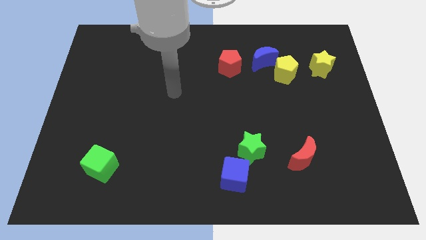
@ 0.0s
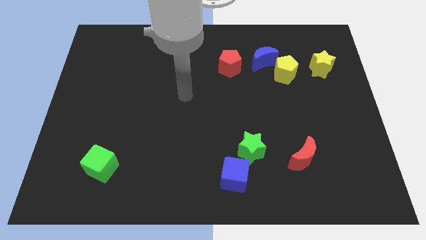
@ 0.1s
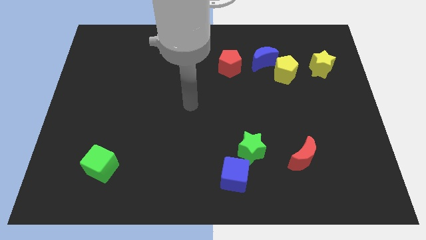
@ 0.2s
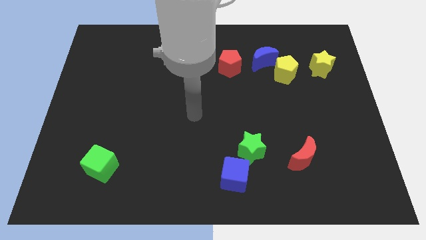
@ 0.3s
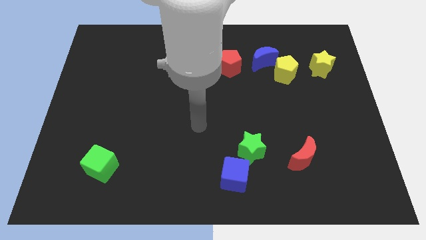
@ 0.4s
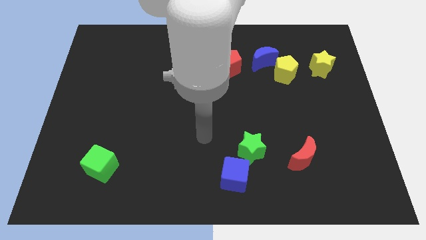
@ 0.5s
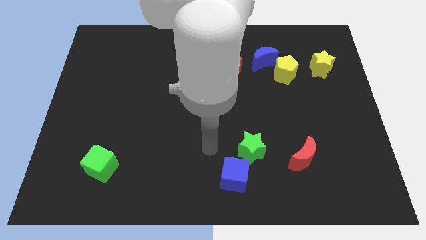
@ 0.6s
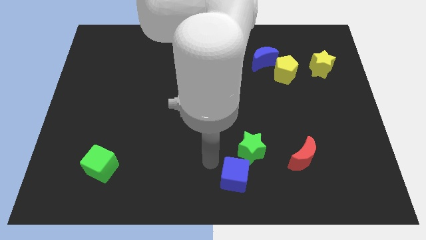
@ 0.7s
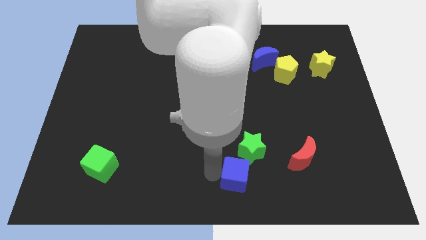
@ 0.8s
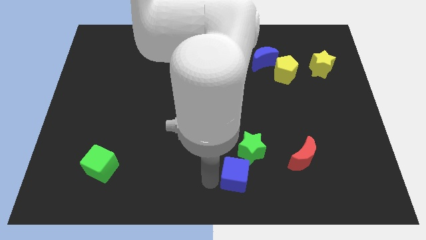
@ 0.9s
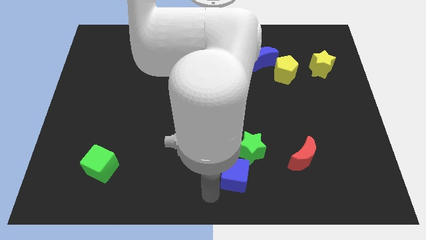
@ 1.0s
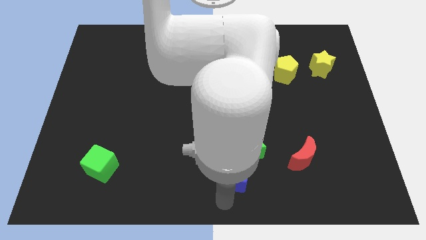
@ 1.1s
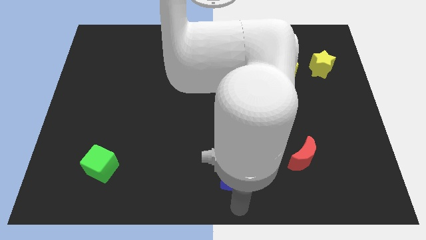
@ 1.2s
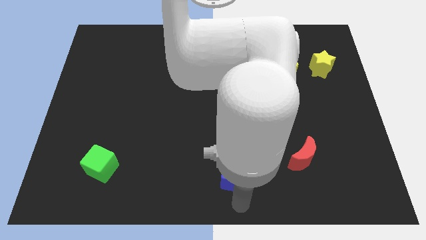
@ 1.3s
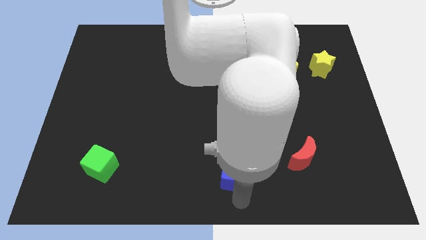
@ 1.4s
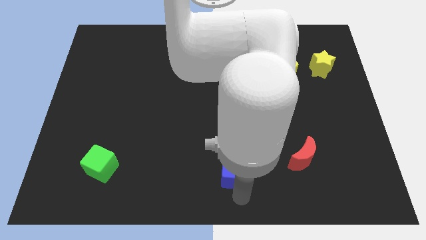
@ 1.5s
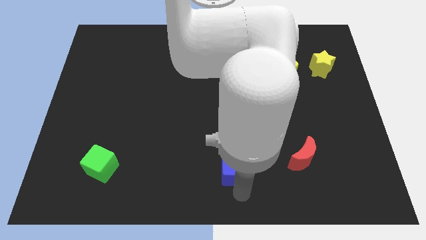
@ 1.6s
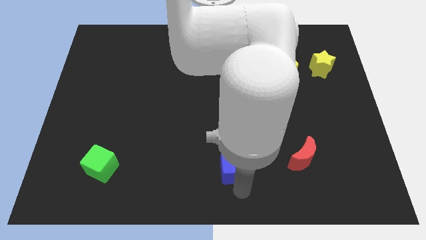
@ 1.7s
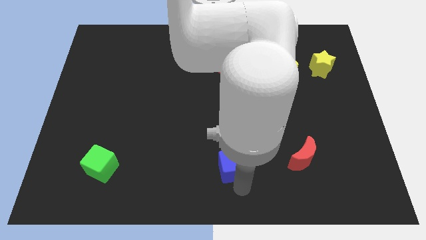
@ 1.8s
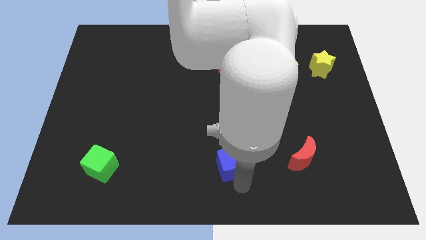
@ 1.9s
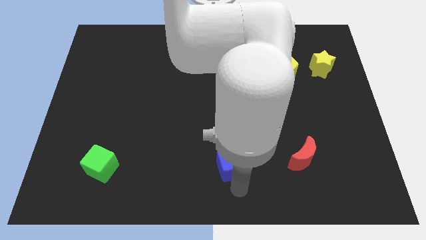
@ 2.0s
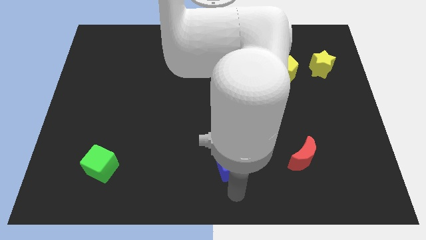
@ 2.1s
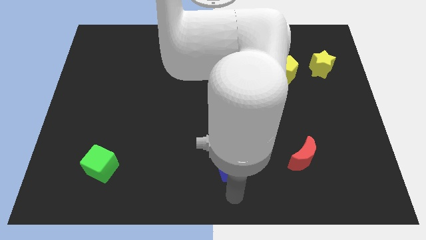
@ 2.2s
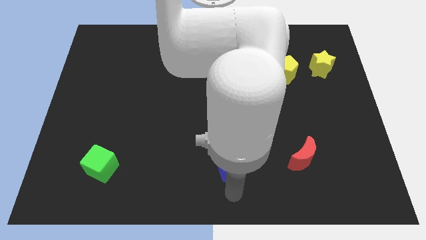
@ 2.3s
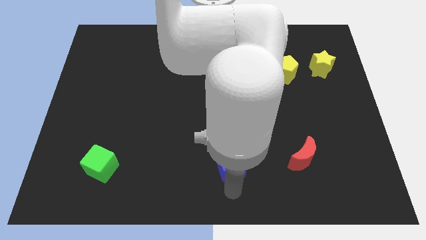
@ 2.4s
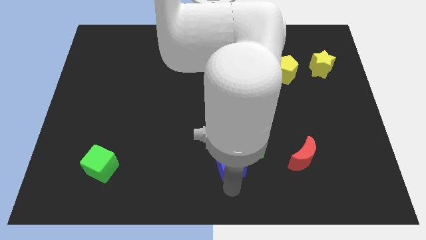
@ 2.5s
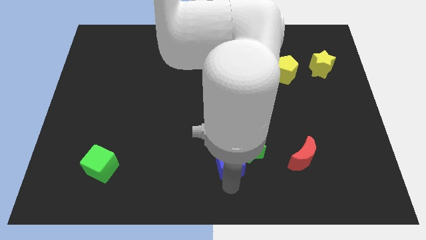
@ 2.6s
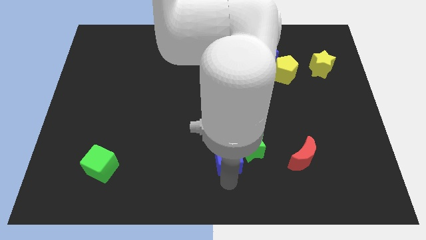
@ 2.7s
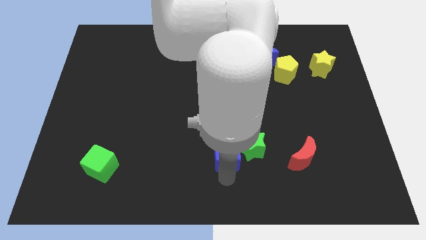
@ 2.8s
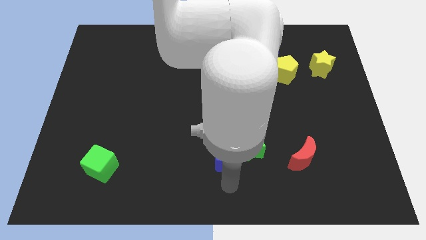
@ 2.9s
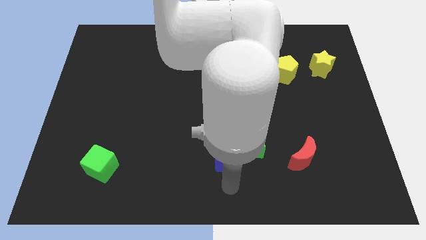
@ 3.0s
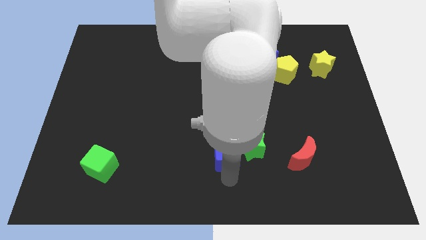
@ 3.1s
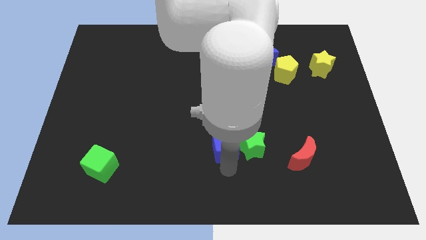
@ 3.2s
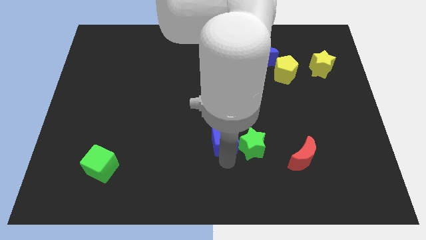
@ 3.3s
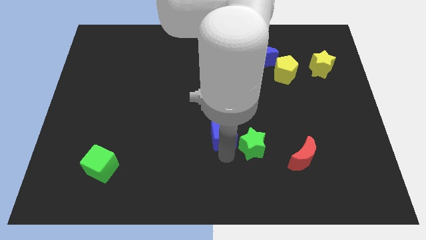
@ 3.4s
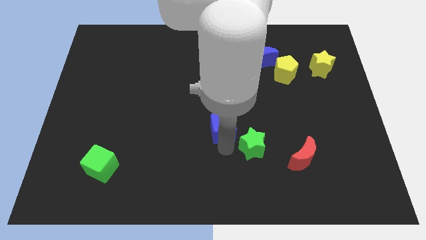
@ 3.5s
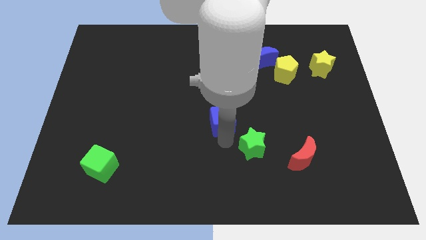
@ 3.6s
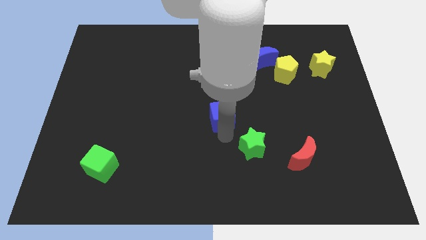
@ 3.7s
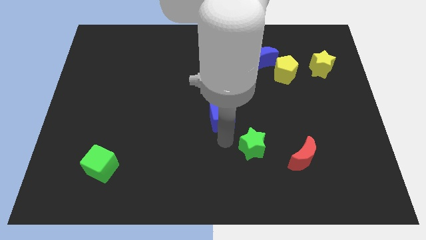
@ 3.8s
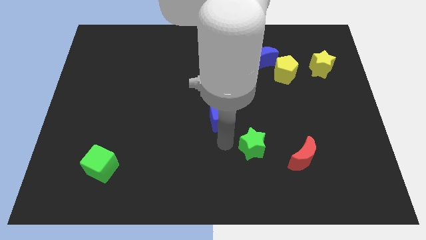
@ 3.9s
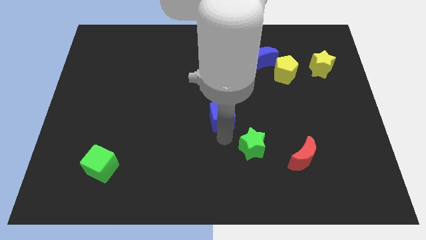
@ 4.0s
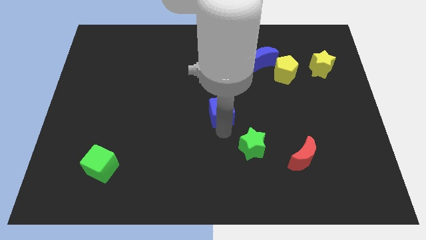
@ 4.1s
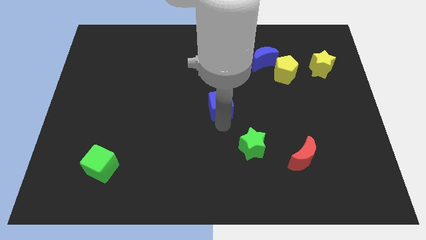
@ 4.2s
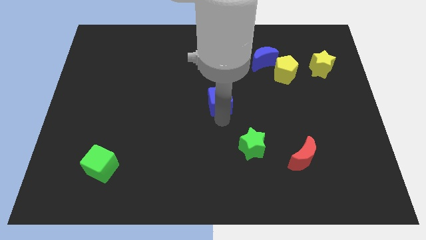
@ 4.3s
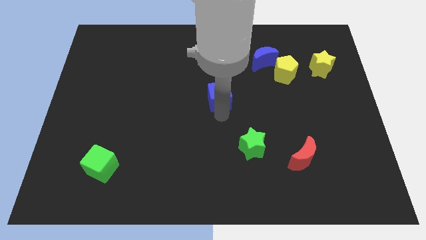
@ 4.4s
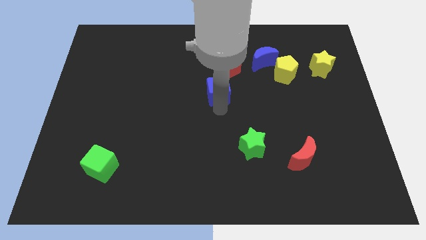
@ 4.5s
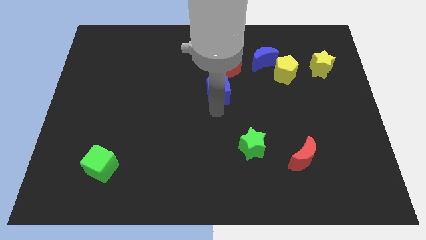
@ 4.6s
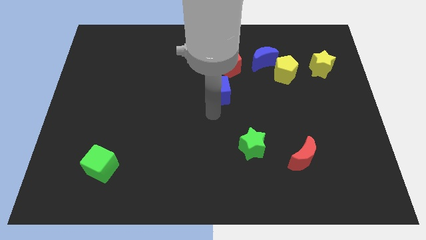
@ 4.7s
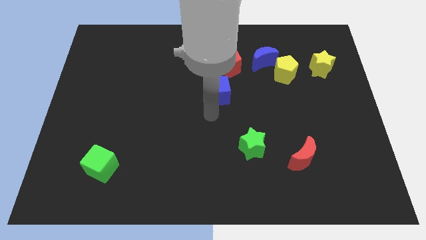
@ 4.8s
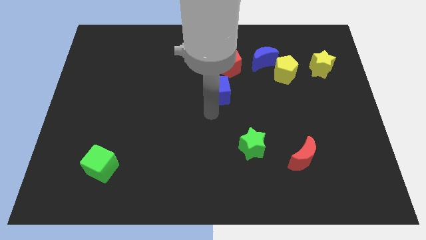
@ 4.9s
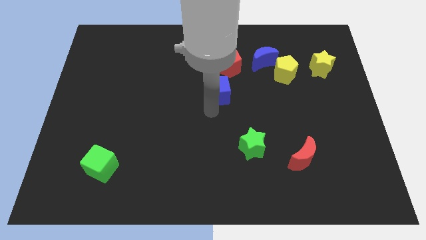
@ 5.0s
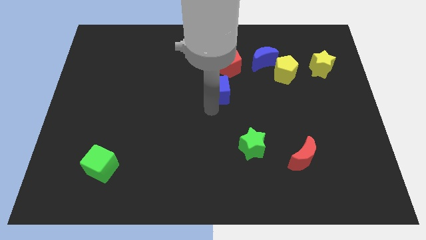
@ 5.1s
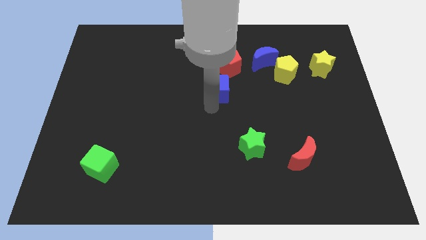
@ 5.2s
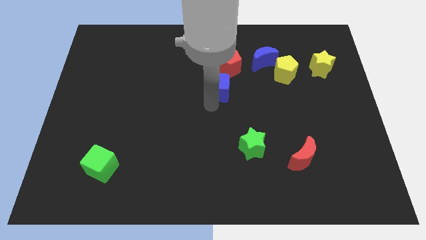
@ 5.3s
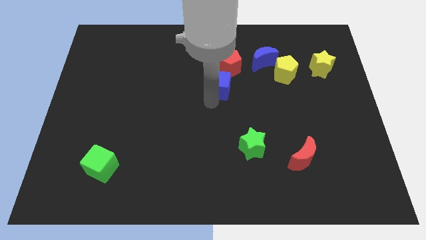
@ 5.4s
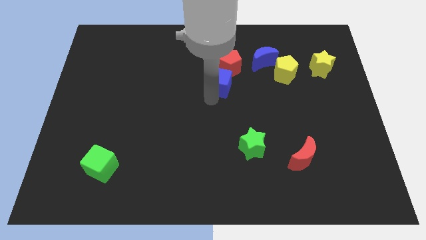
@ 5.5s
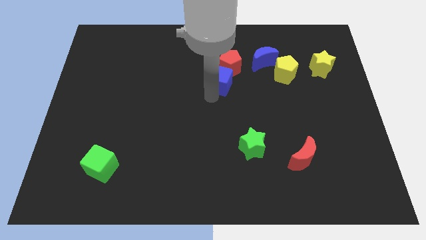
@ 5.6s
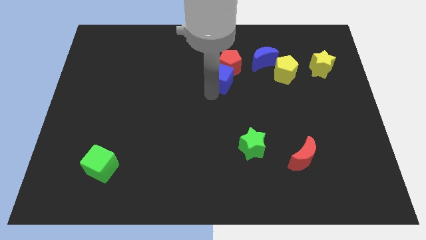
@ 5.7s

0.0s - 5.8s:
move the blue cube towards the red pentagon

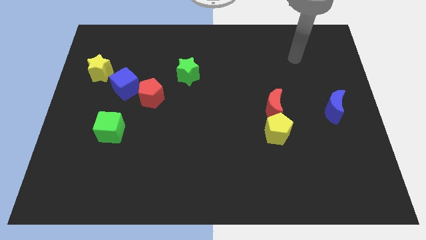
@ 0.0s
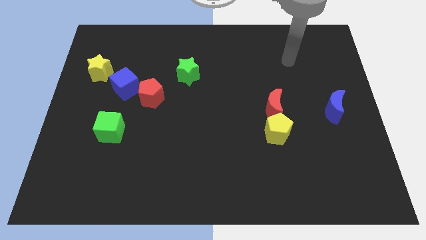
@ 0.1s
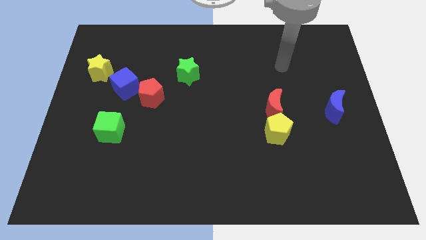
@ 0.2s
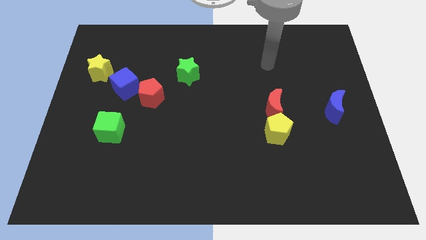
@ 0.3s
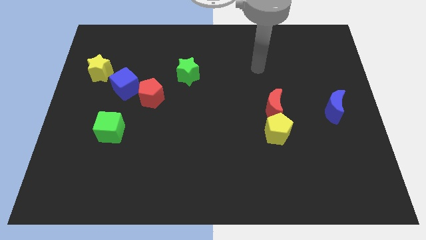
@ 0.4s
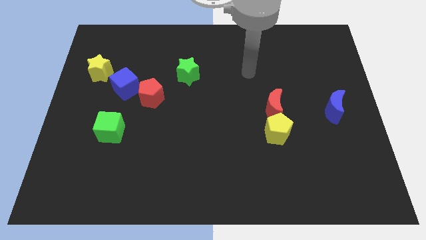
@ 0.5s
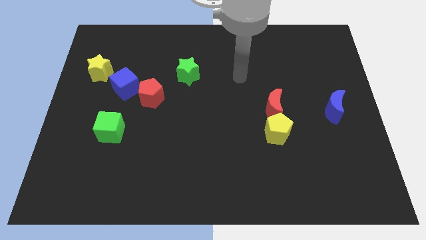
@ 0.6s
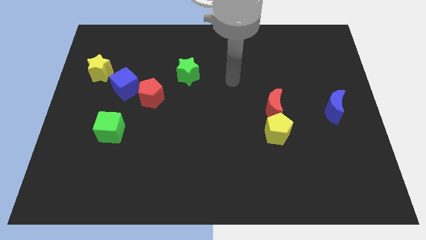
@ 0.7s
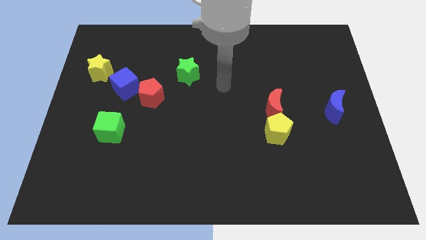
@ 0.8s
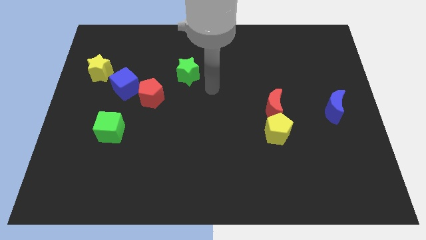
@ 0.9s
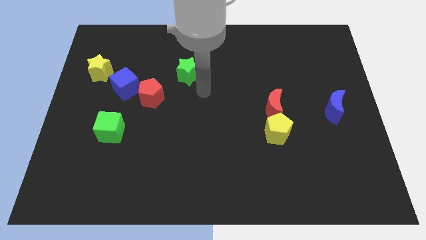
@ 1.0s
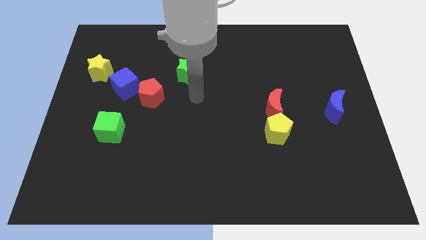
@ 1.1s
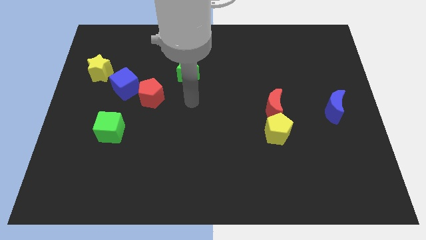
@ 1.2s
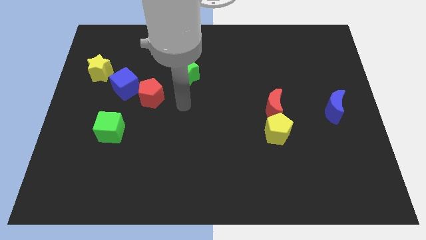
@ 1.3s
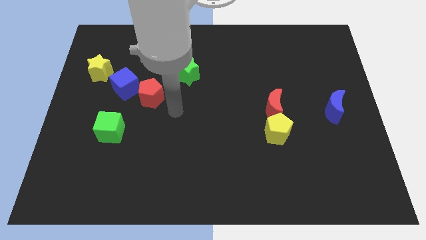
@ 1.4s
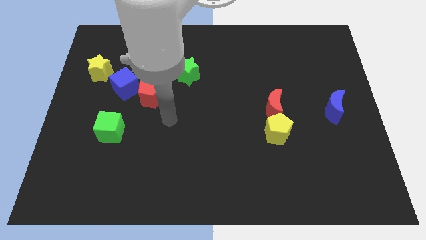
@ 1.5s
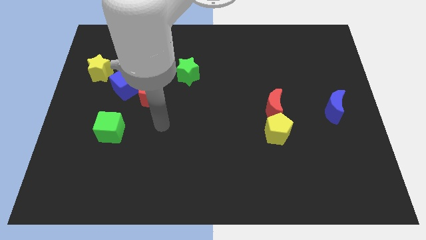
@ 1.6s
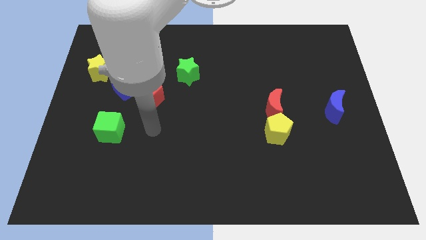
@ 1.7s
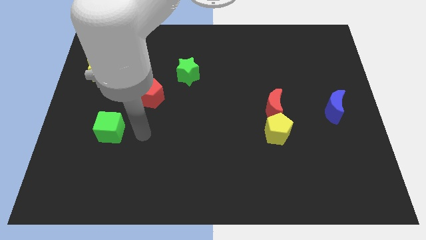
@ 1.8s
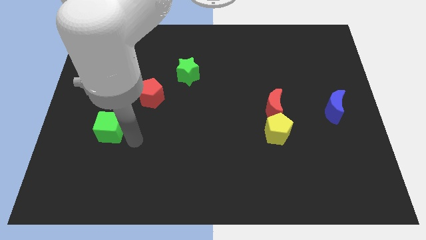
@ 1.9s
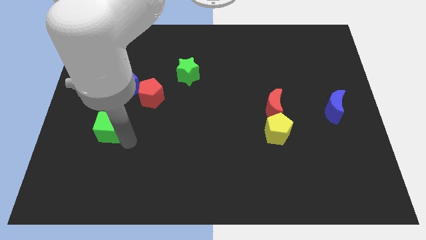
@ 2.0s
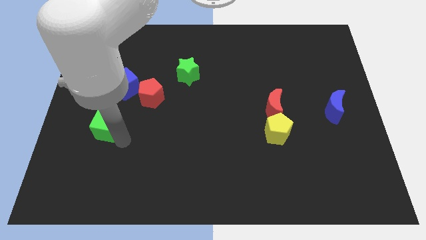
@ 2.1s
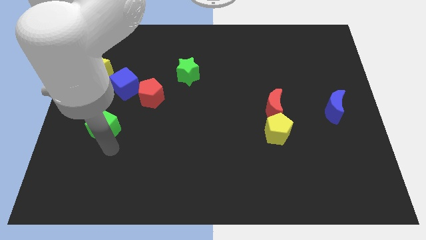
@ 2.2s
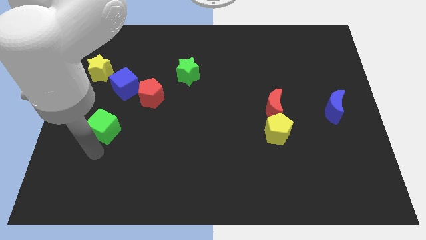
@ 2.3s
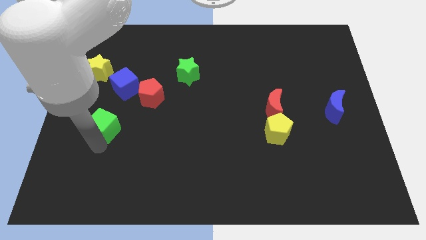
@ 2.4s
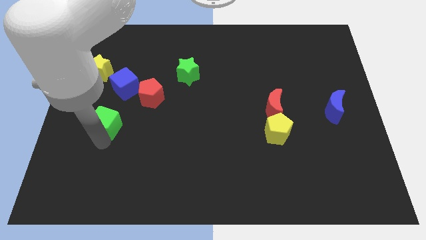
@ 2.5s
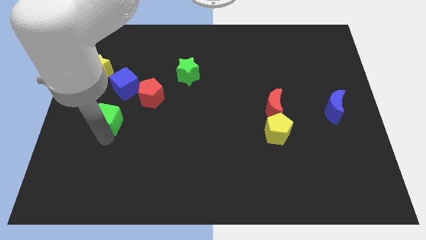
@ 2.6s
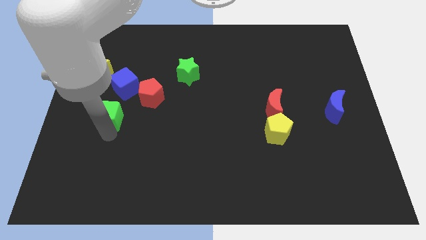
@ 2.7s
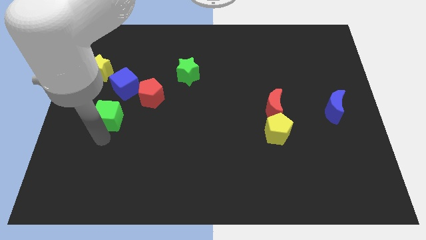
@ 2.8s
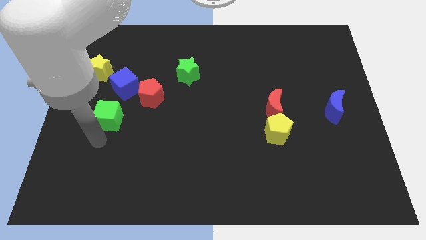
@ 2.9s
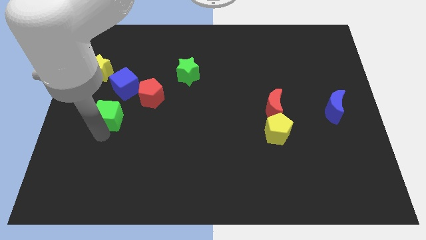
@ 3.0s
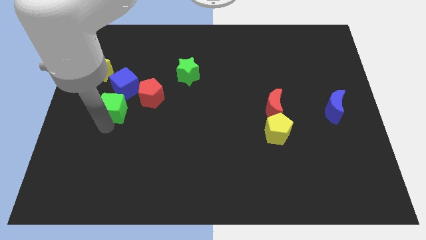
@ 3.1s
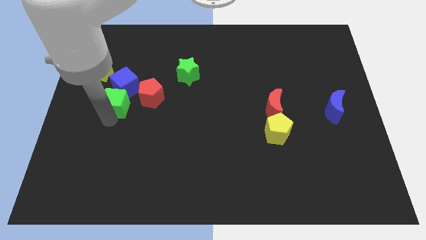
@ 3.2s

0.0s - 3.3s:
move the green cube close to the blue cube
